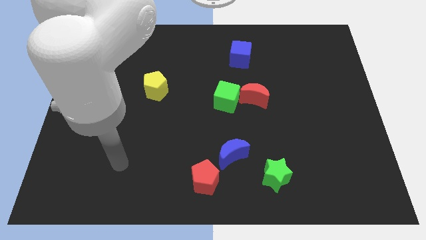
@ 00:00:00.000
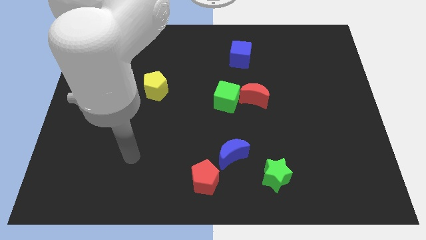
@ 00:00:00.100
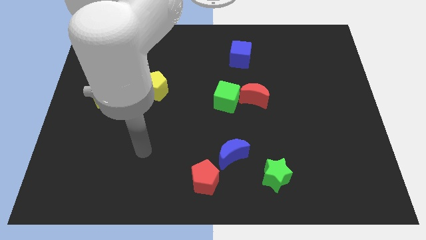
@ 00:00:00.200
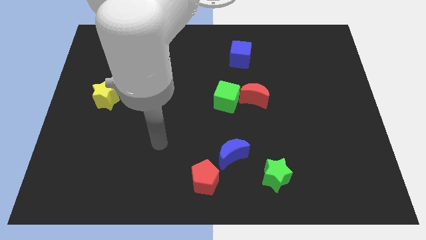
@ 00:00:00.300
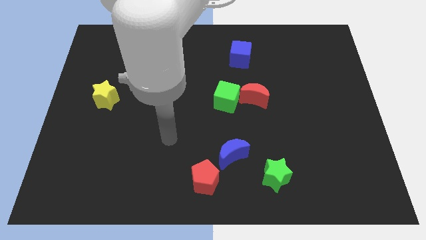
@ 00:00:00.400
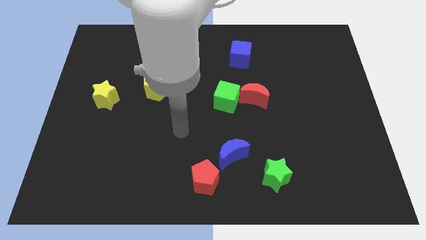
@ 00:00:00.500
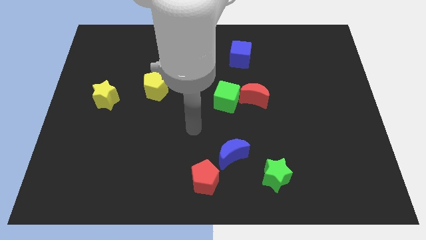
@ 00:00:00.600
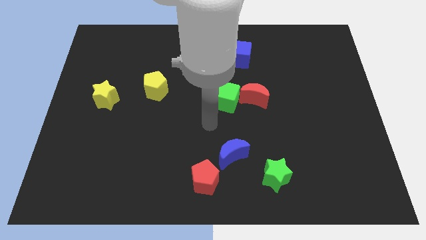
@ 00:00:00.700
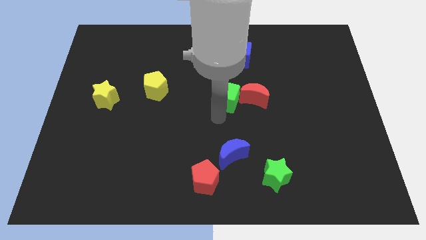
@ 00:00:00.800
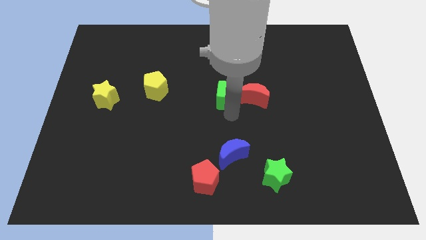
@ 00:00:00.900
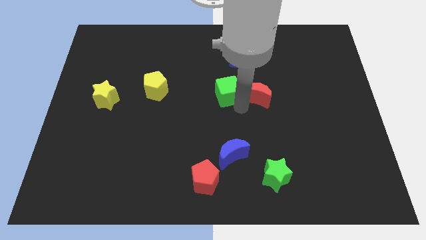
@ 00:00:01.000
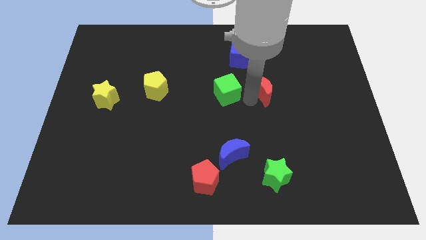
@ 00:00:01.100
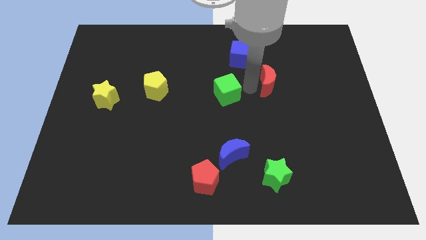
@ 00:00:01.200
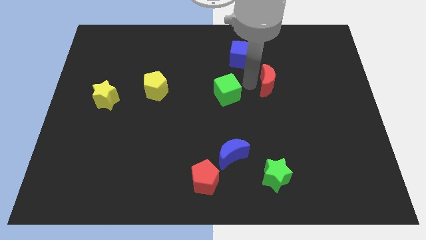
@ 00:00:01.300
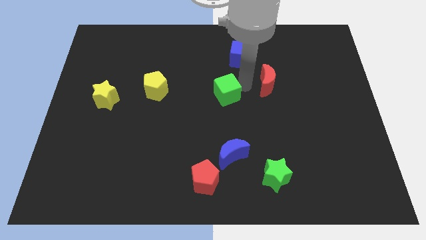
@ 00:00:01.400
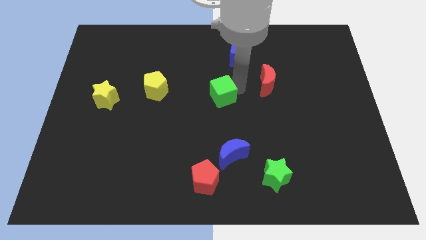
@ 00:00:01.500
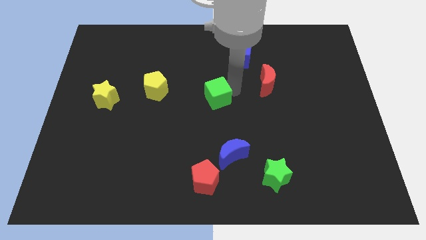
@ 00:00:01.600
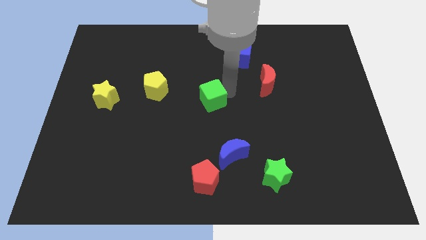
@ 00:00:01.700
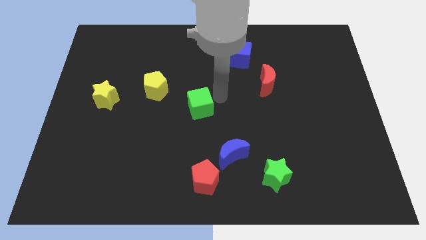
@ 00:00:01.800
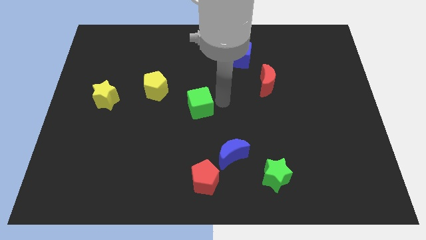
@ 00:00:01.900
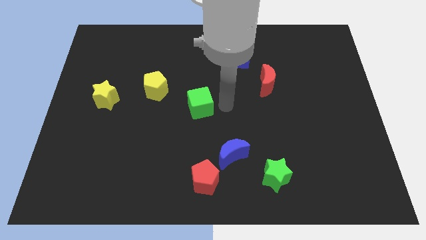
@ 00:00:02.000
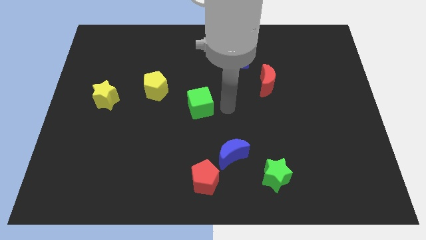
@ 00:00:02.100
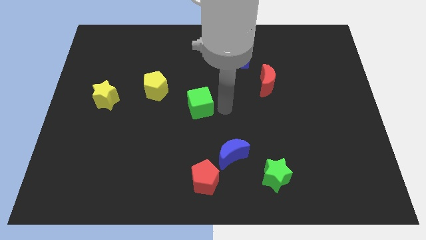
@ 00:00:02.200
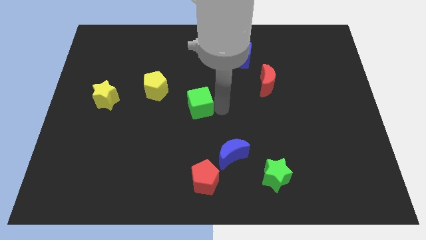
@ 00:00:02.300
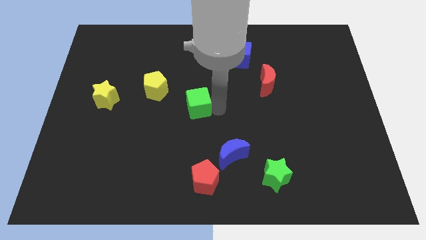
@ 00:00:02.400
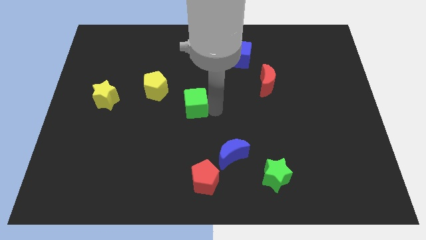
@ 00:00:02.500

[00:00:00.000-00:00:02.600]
slide the green cube left a bit

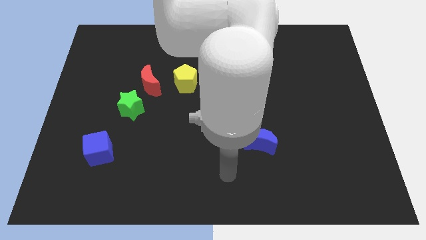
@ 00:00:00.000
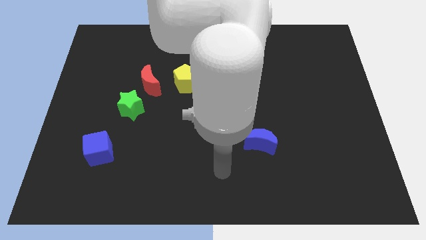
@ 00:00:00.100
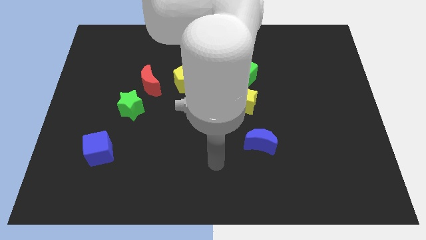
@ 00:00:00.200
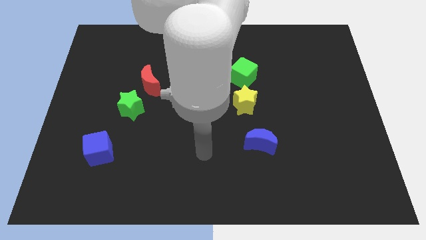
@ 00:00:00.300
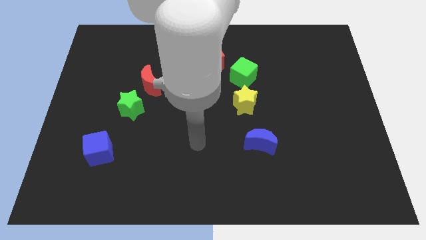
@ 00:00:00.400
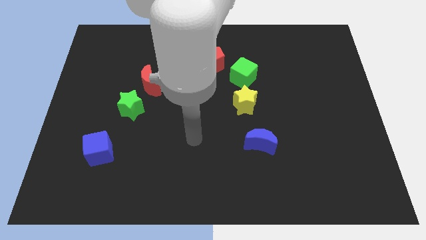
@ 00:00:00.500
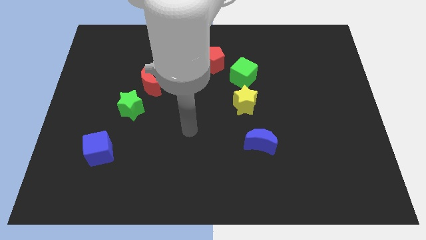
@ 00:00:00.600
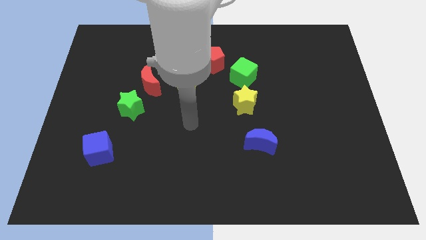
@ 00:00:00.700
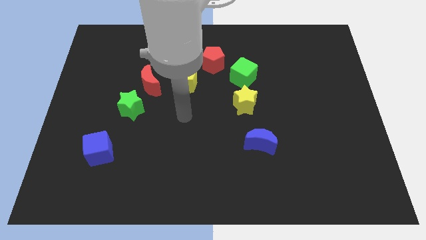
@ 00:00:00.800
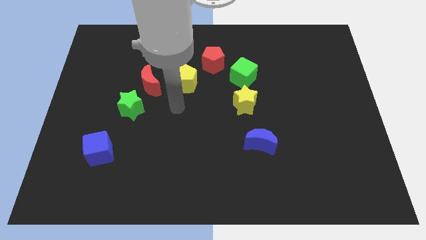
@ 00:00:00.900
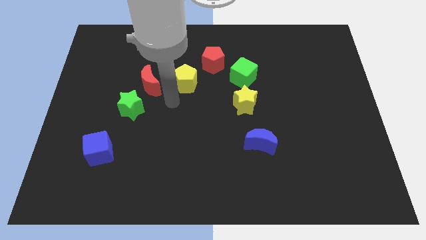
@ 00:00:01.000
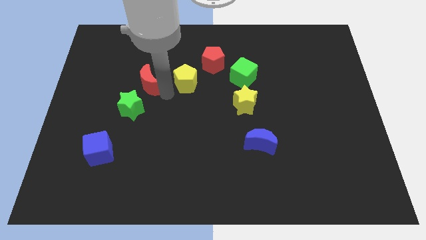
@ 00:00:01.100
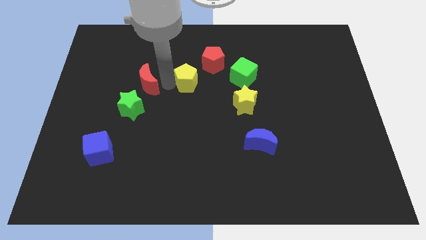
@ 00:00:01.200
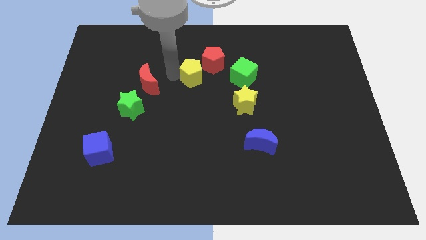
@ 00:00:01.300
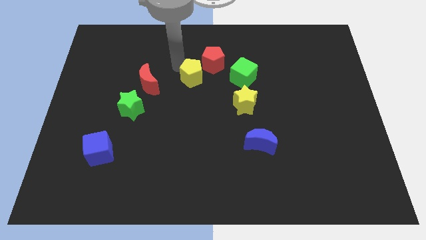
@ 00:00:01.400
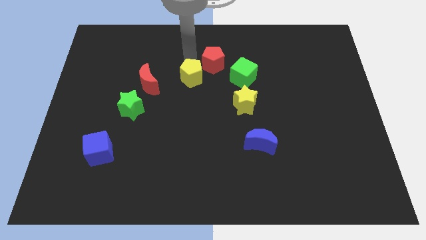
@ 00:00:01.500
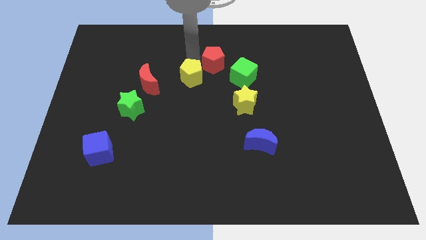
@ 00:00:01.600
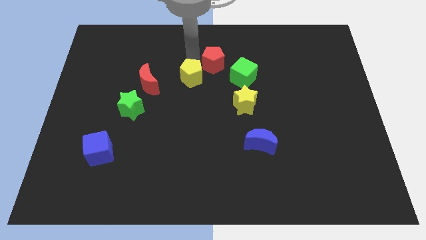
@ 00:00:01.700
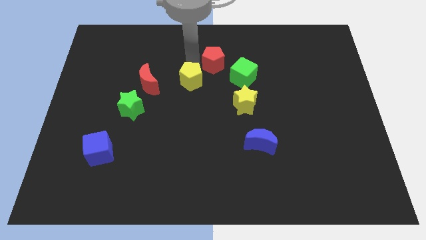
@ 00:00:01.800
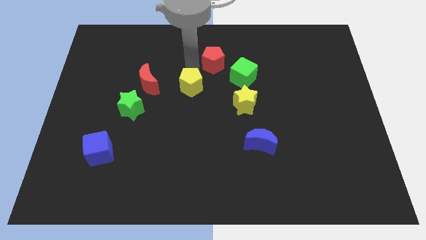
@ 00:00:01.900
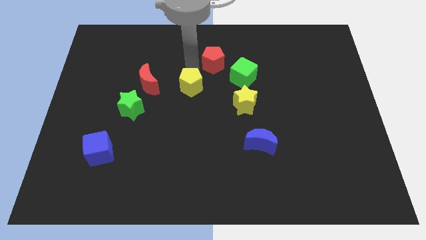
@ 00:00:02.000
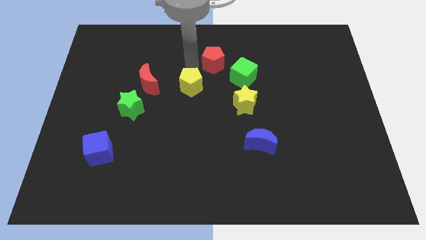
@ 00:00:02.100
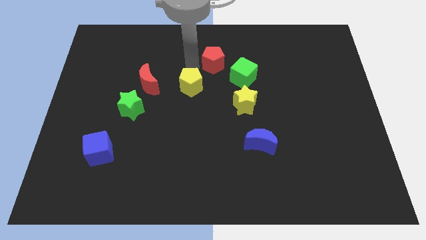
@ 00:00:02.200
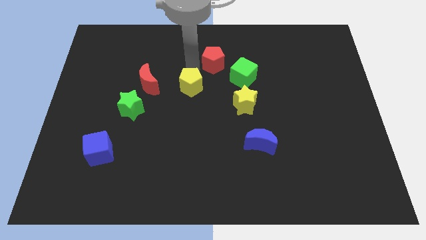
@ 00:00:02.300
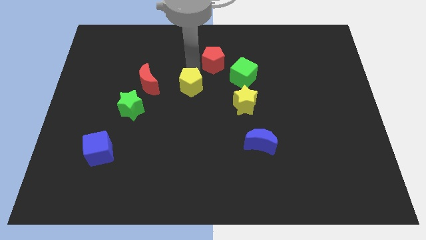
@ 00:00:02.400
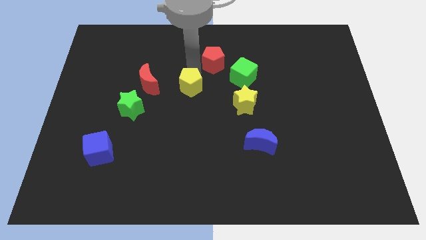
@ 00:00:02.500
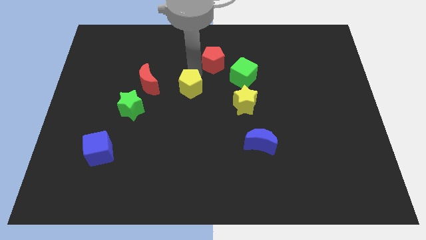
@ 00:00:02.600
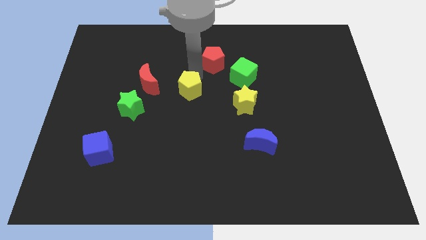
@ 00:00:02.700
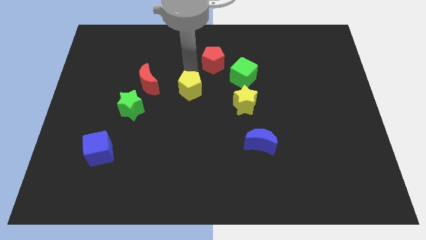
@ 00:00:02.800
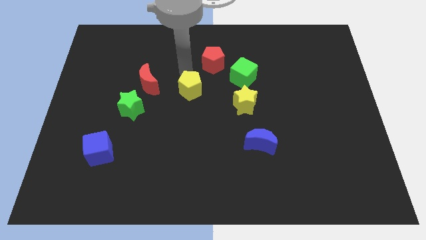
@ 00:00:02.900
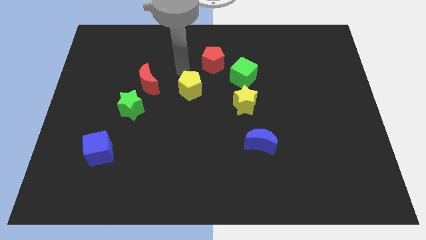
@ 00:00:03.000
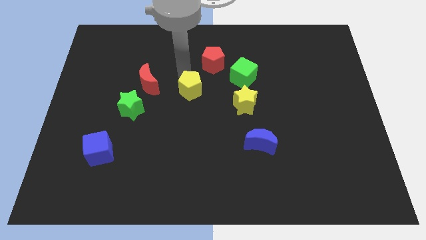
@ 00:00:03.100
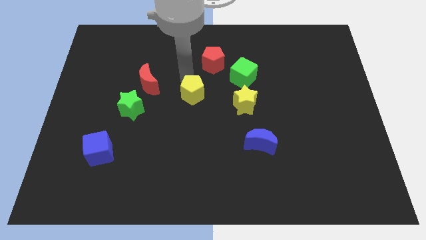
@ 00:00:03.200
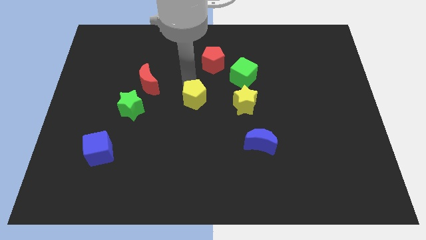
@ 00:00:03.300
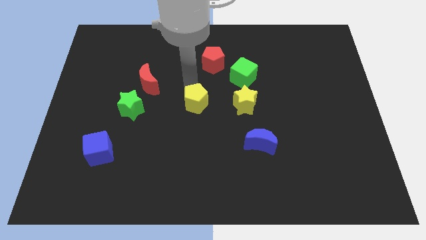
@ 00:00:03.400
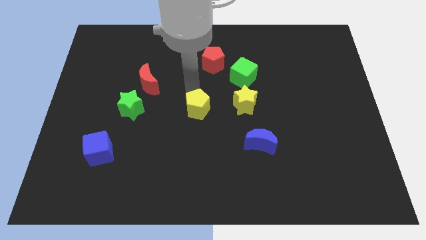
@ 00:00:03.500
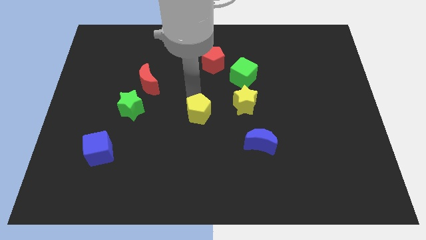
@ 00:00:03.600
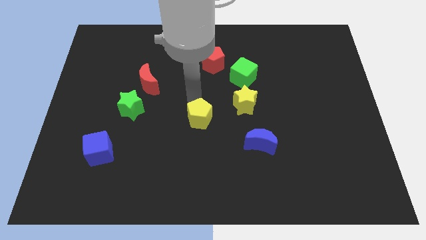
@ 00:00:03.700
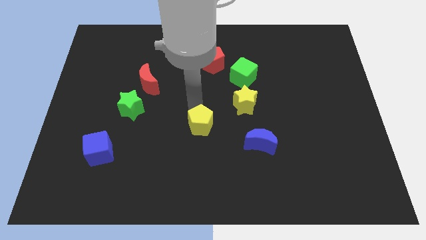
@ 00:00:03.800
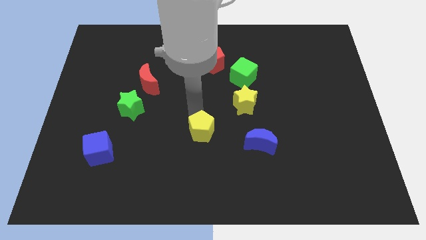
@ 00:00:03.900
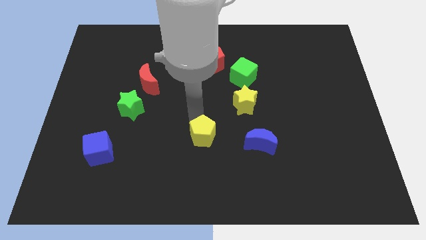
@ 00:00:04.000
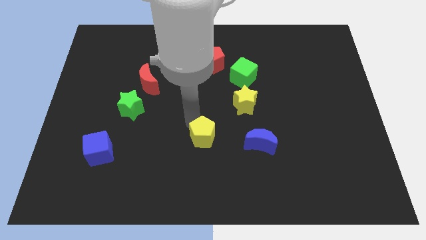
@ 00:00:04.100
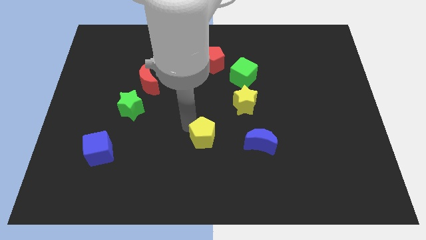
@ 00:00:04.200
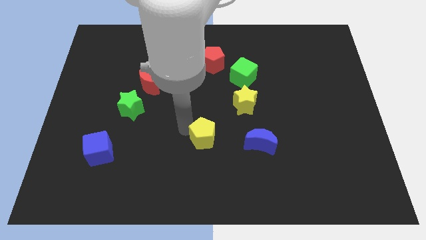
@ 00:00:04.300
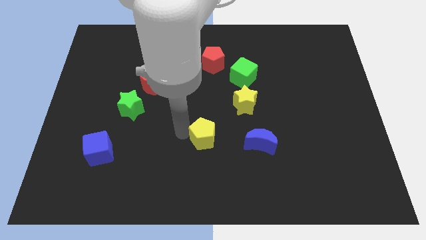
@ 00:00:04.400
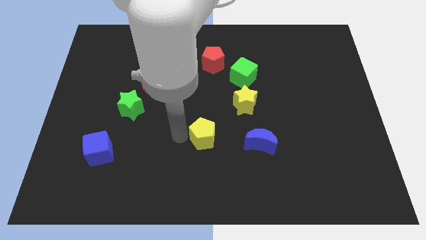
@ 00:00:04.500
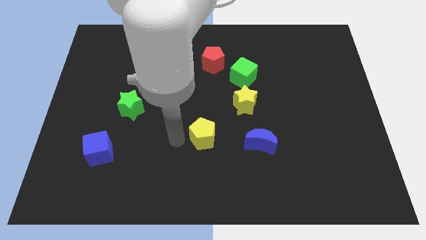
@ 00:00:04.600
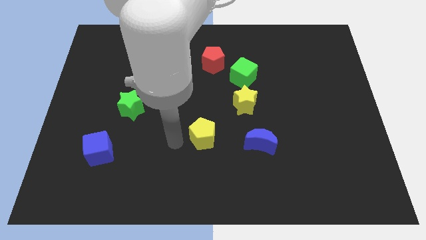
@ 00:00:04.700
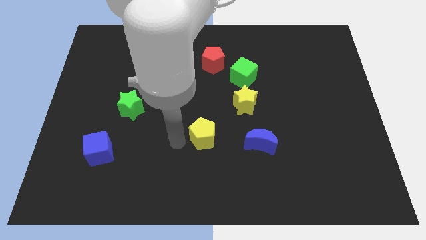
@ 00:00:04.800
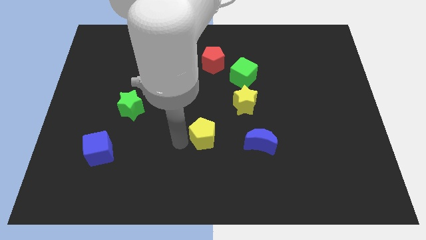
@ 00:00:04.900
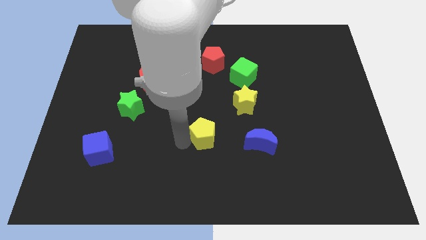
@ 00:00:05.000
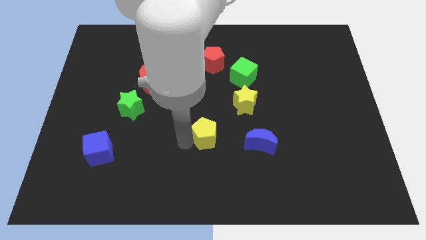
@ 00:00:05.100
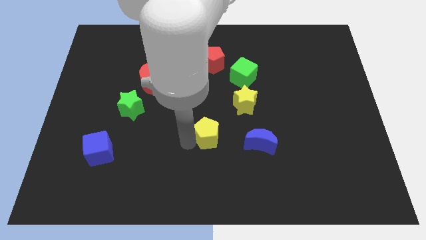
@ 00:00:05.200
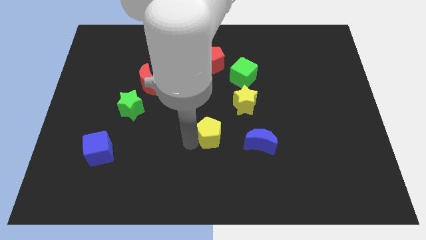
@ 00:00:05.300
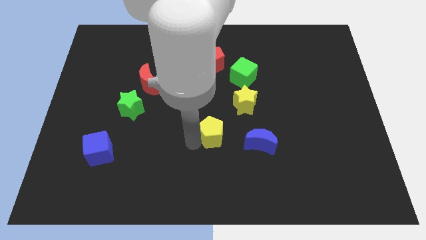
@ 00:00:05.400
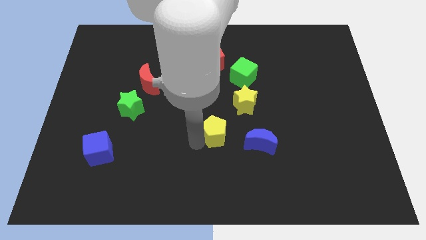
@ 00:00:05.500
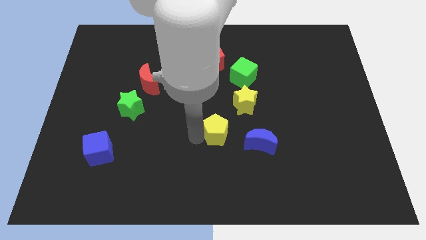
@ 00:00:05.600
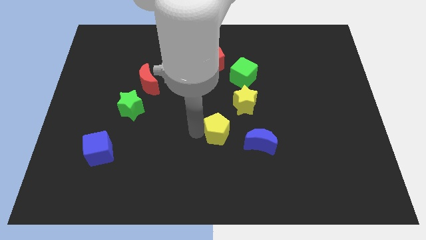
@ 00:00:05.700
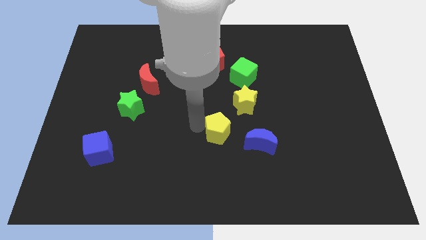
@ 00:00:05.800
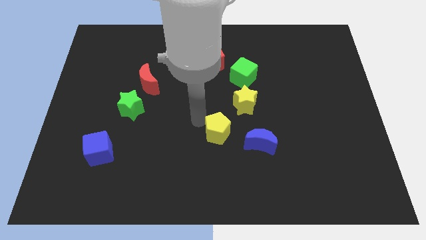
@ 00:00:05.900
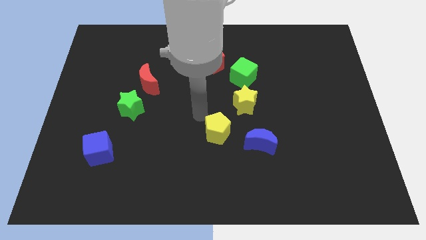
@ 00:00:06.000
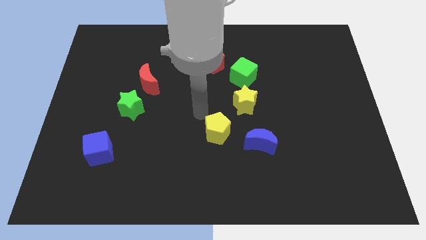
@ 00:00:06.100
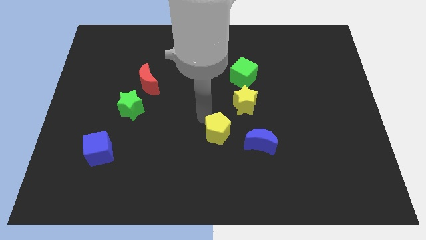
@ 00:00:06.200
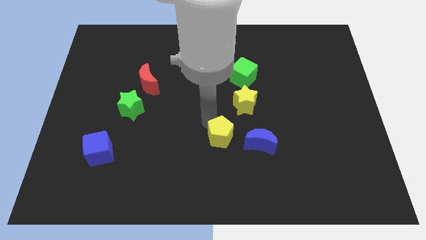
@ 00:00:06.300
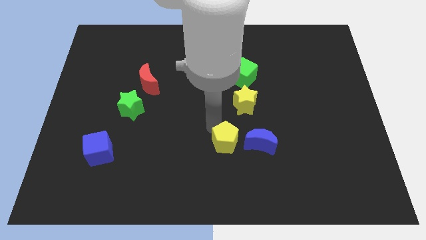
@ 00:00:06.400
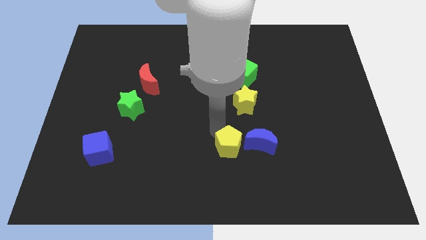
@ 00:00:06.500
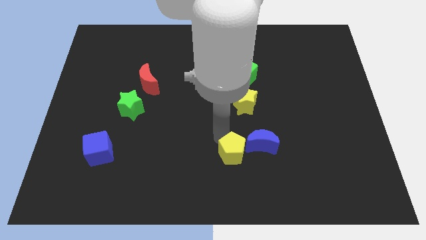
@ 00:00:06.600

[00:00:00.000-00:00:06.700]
move the yellow pentagon downwards and right diagonally
